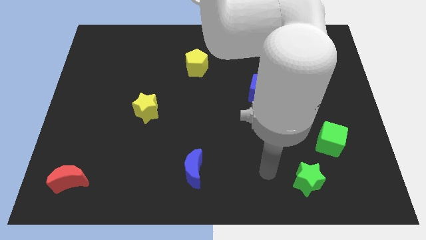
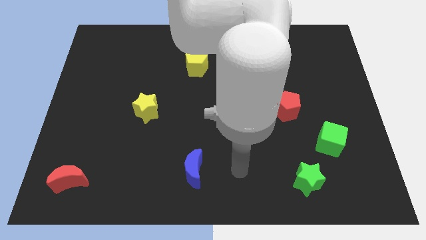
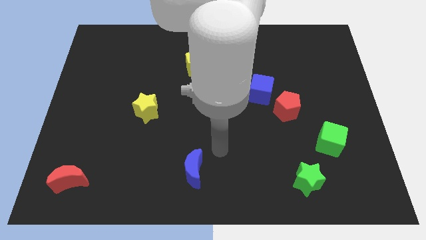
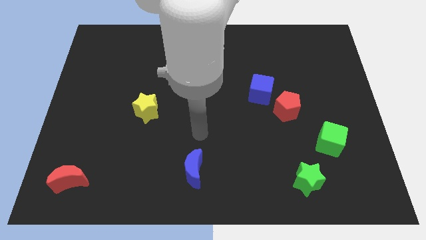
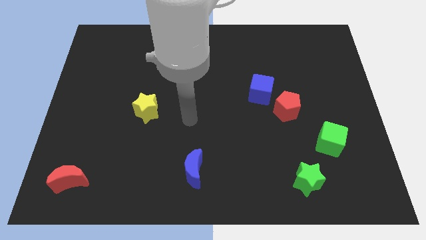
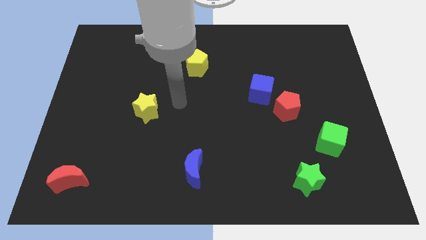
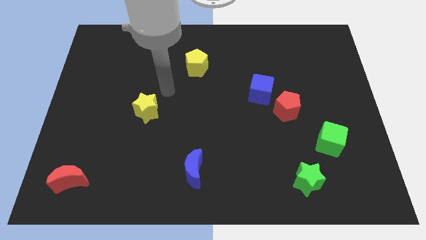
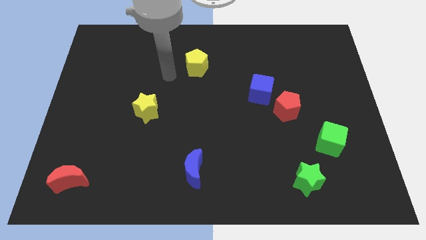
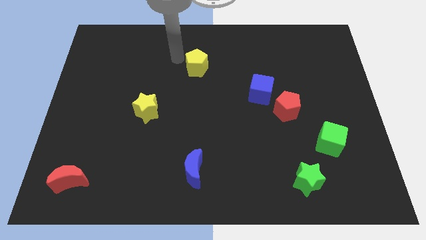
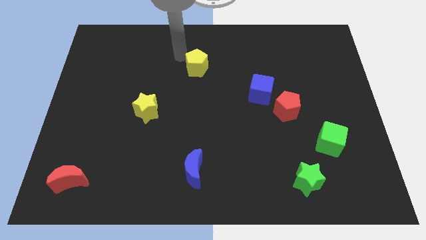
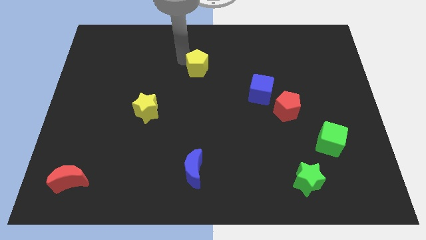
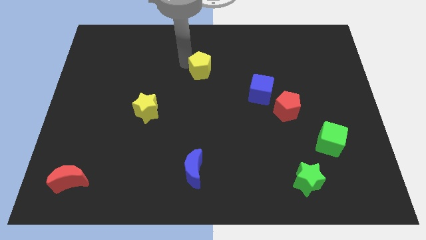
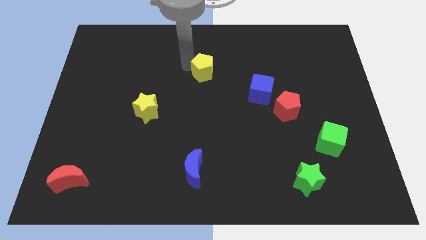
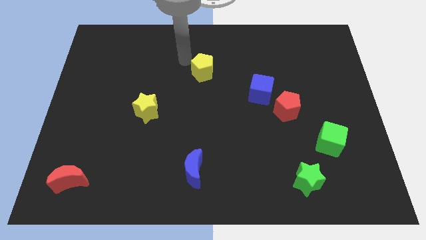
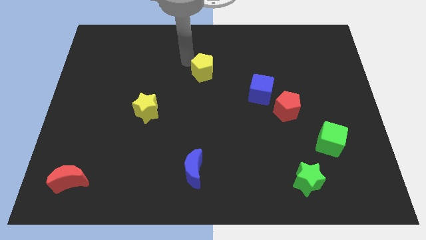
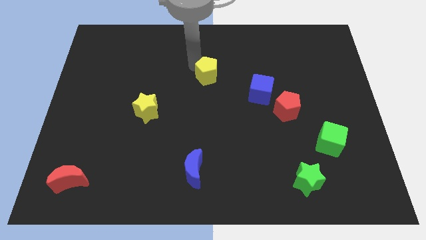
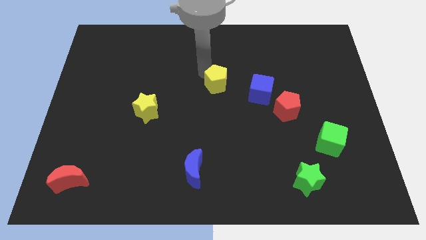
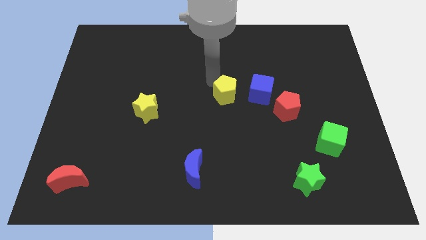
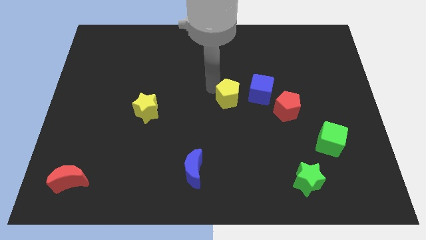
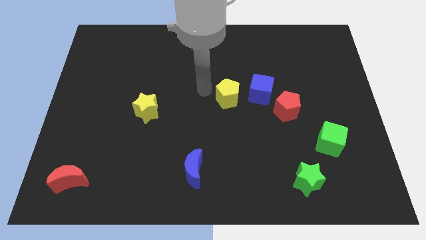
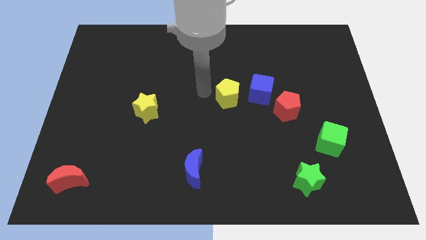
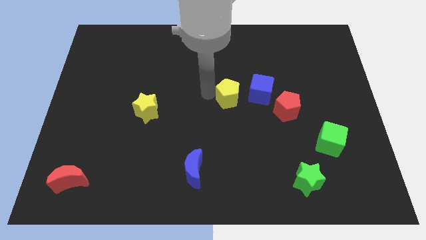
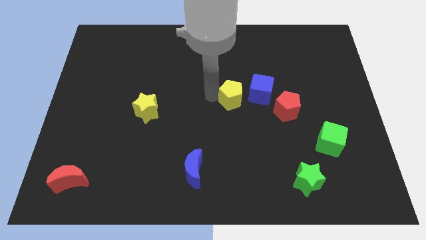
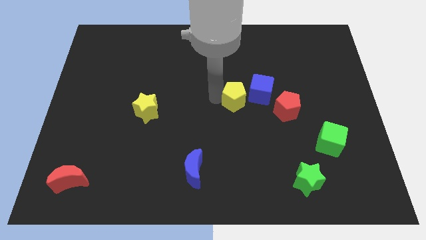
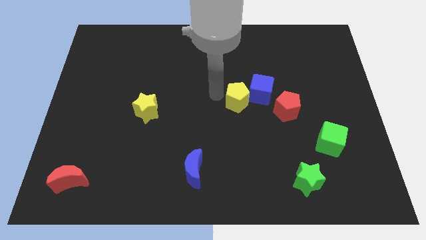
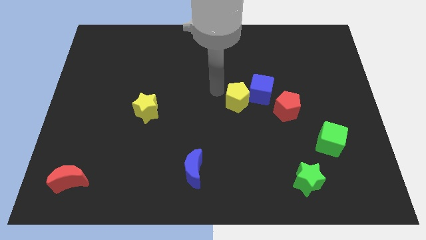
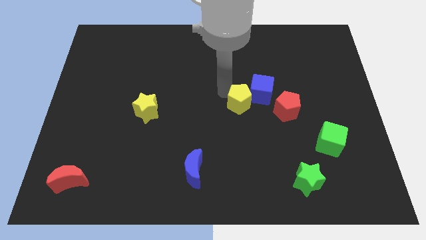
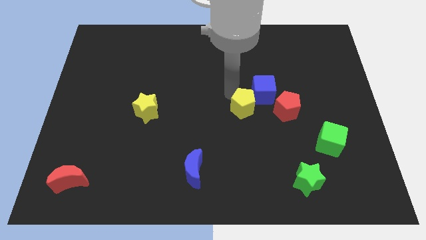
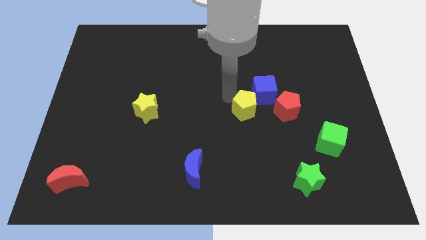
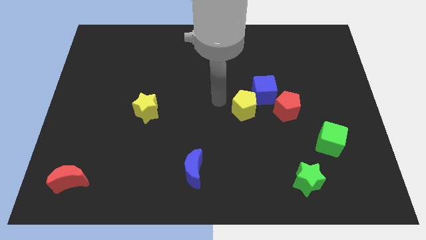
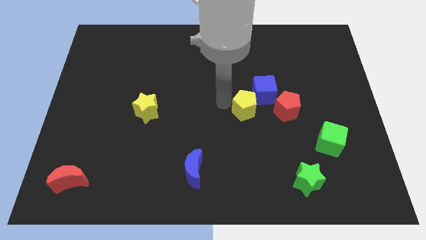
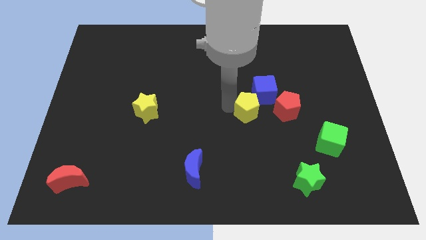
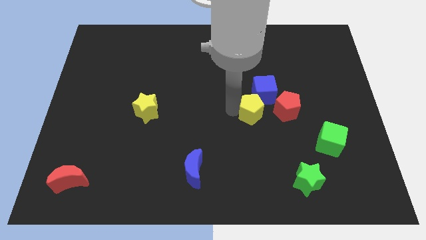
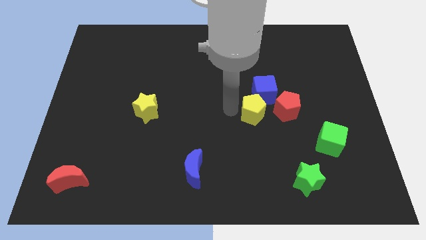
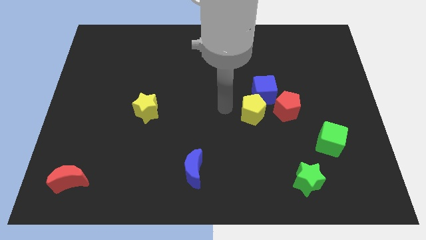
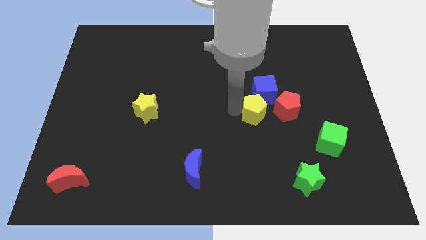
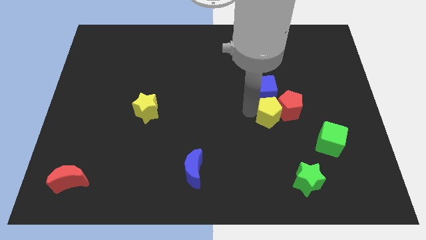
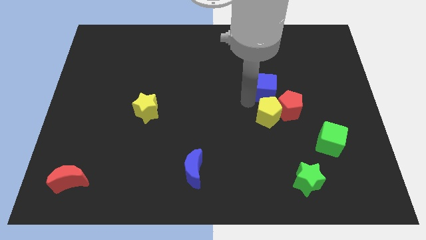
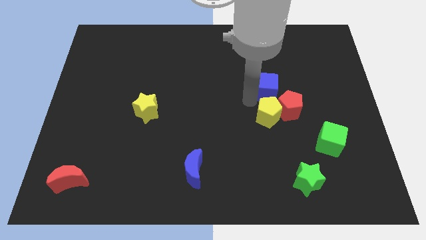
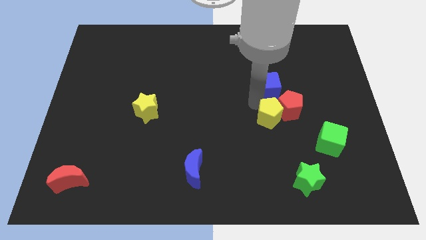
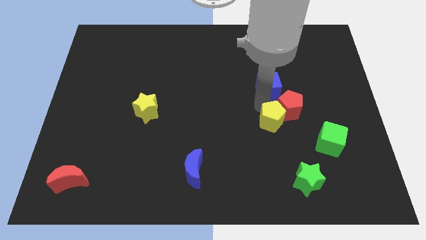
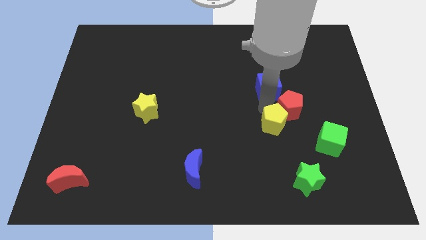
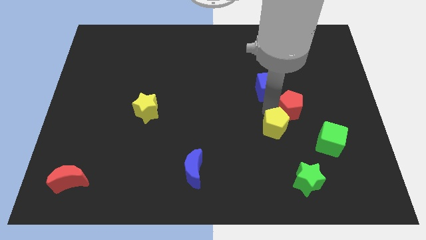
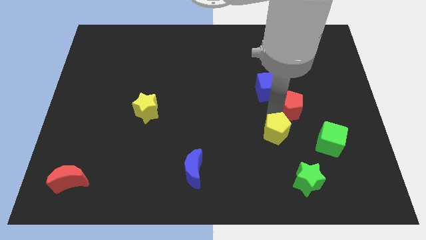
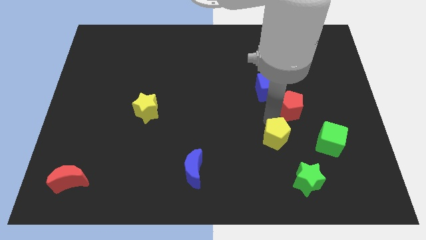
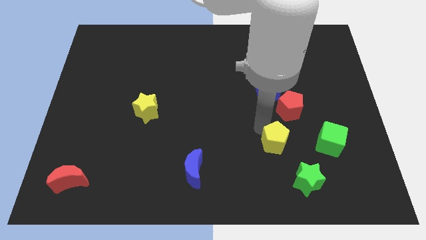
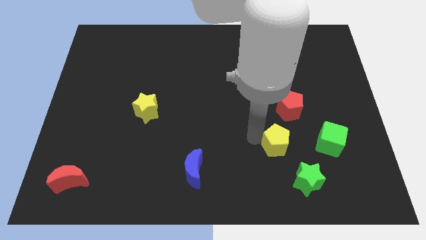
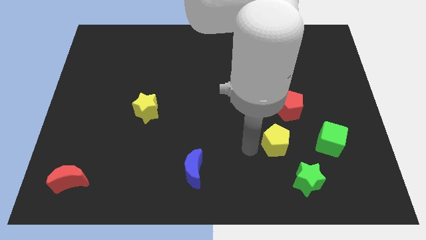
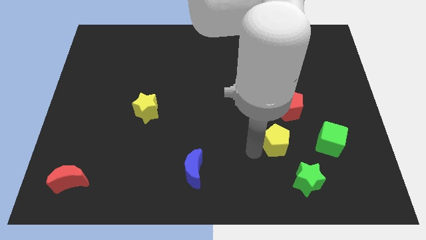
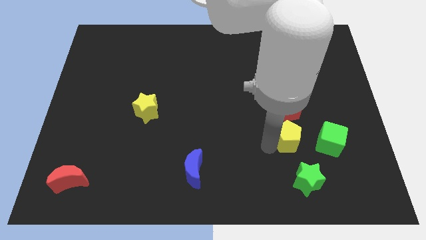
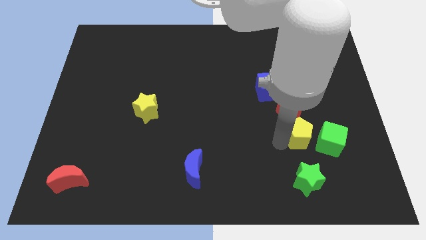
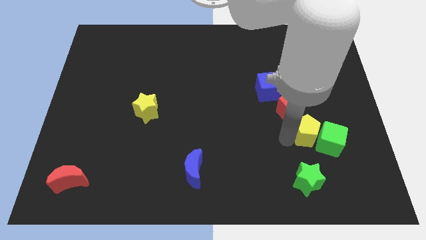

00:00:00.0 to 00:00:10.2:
put the yellow pentagon next to the green cube
